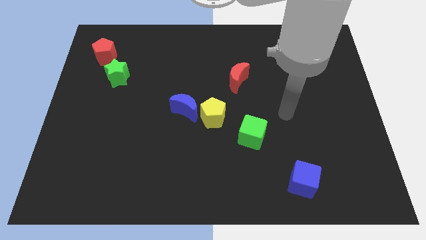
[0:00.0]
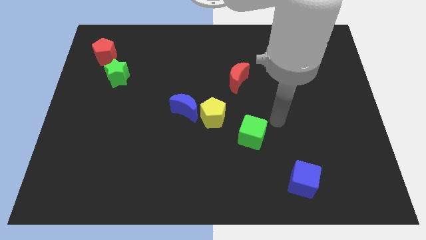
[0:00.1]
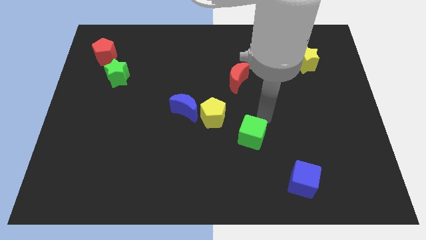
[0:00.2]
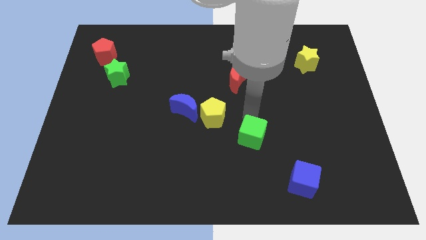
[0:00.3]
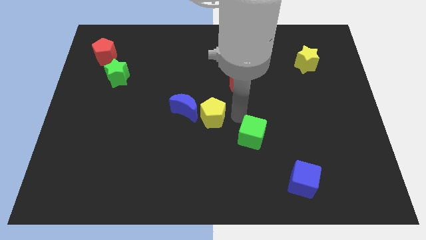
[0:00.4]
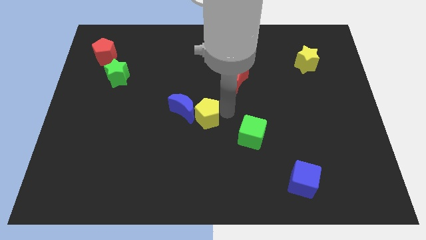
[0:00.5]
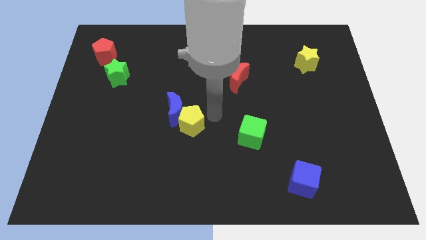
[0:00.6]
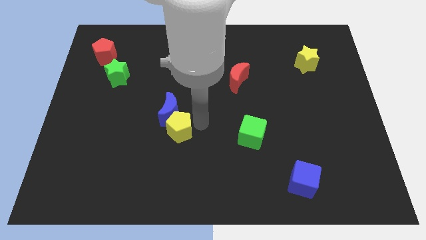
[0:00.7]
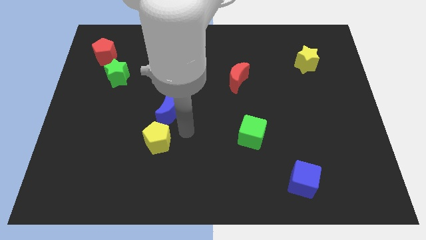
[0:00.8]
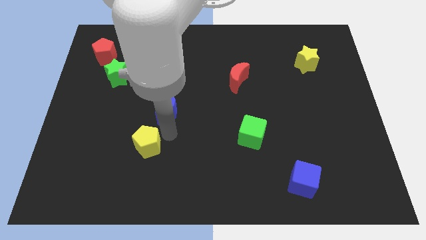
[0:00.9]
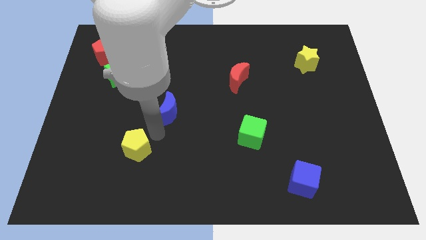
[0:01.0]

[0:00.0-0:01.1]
separate the blue moon from the yellow pentagon

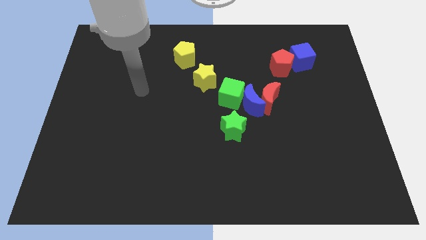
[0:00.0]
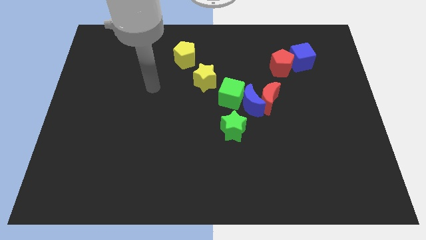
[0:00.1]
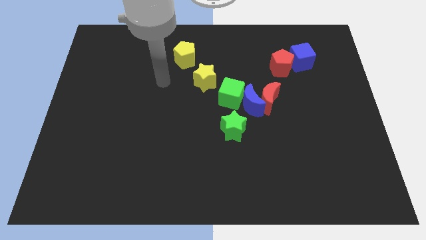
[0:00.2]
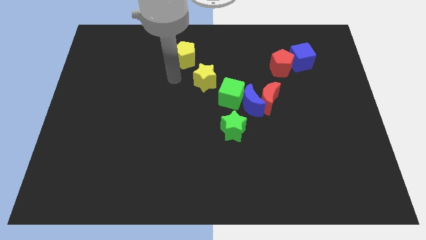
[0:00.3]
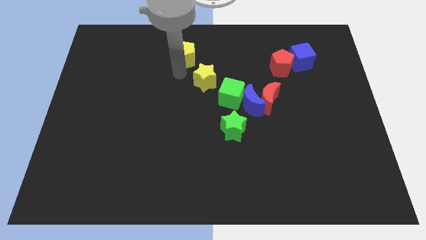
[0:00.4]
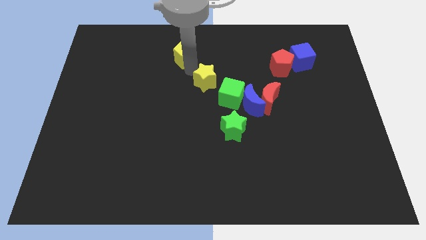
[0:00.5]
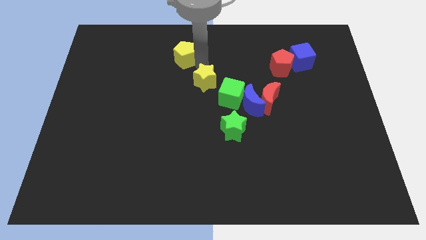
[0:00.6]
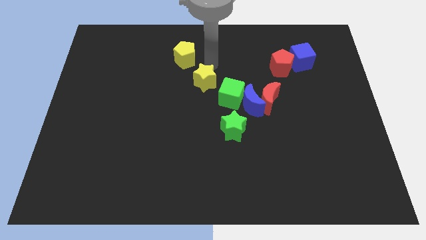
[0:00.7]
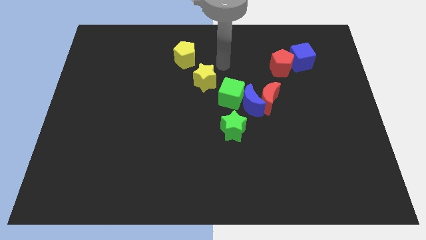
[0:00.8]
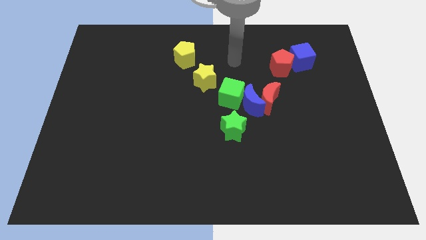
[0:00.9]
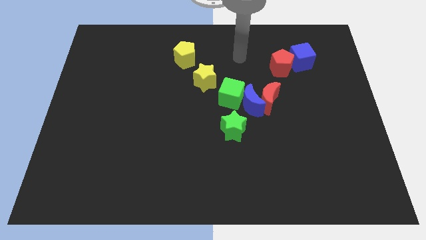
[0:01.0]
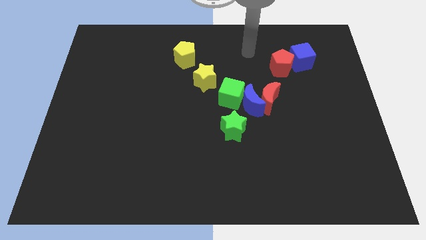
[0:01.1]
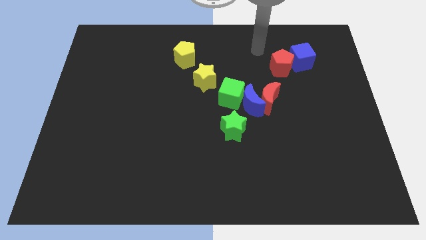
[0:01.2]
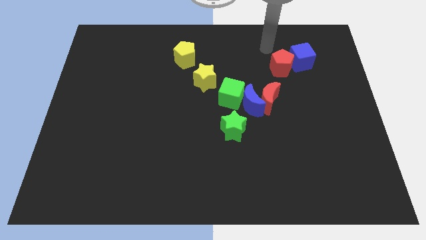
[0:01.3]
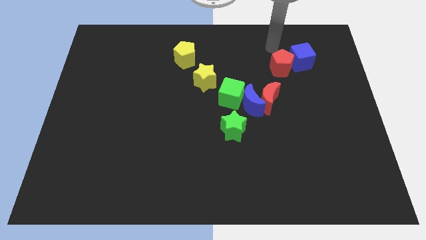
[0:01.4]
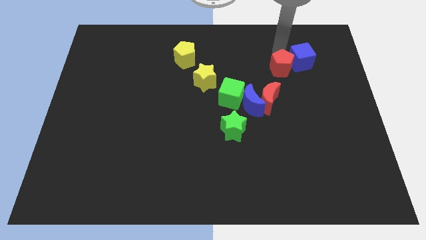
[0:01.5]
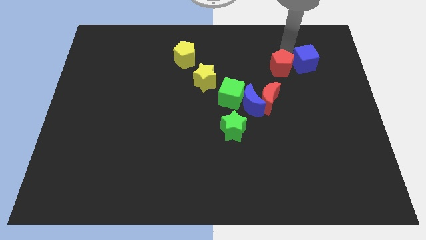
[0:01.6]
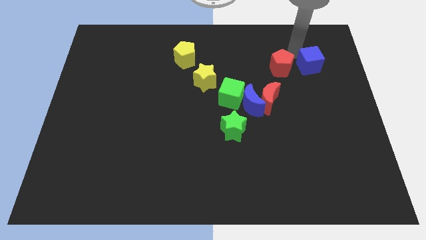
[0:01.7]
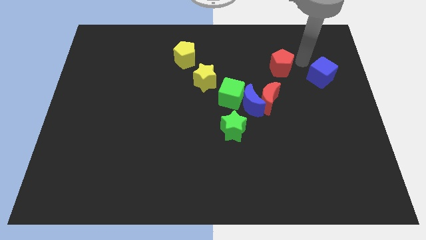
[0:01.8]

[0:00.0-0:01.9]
move the red pentagon away from the blue cube

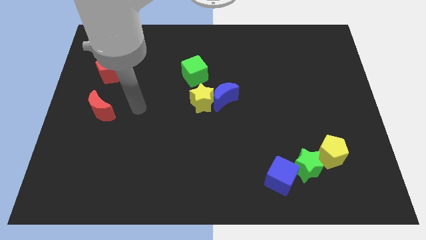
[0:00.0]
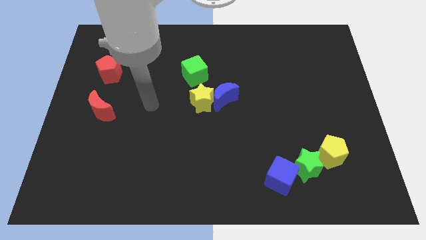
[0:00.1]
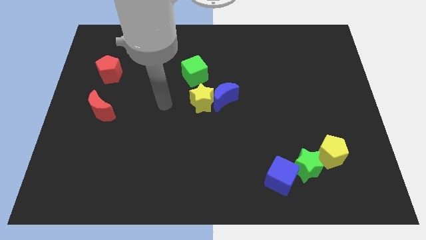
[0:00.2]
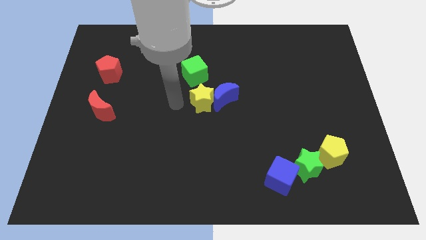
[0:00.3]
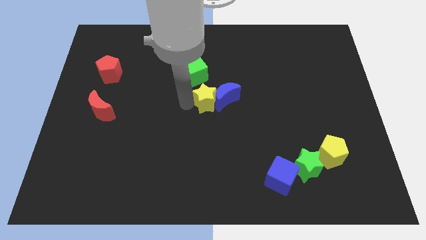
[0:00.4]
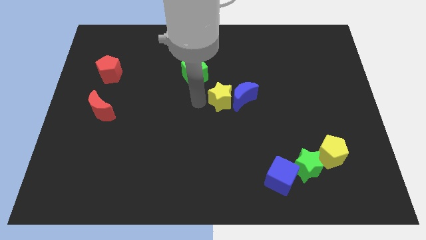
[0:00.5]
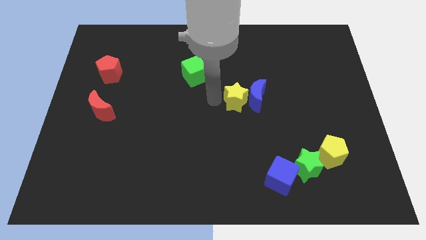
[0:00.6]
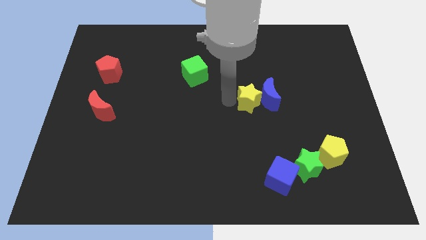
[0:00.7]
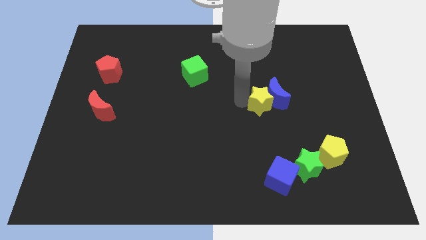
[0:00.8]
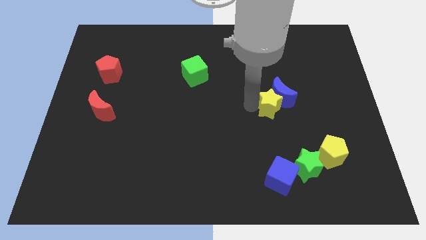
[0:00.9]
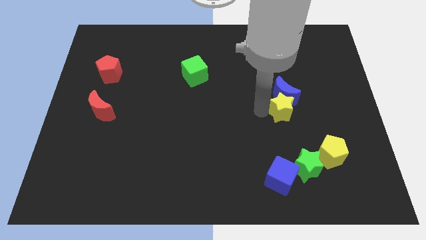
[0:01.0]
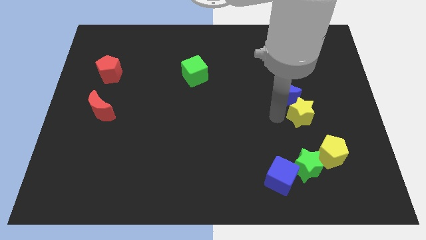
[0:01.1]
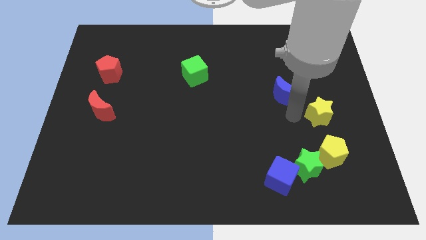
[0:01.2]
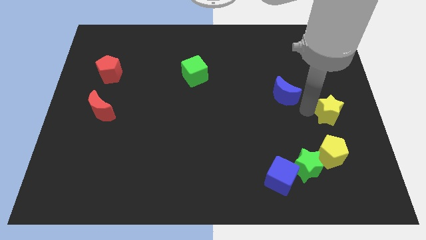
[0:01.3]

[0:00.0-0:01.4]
move the blue moon away from the yellow star

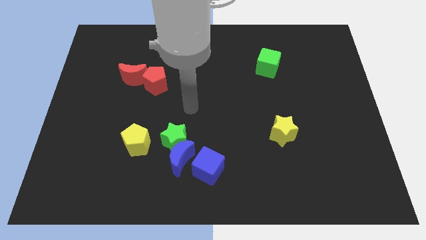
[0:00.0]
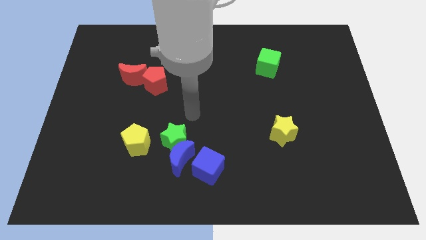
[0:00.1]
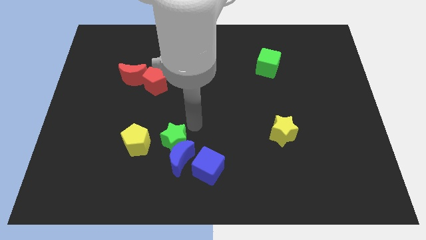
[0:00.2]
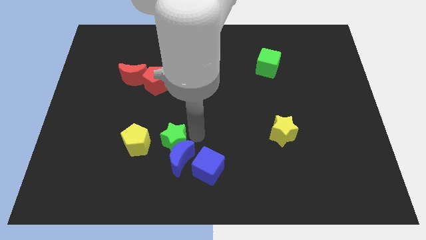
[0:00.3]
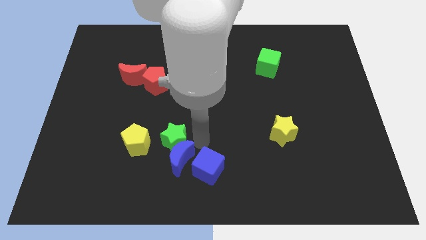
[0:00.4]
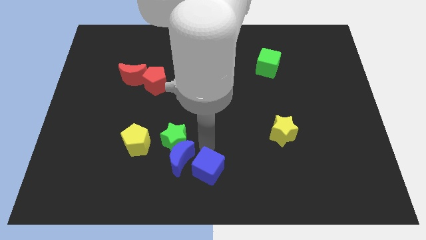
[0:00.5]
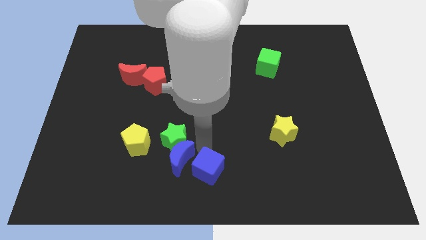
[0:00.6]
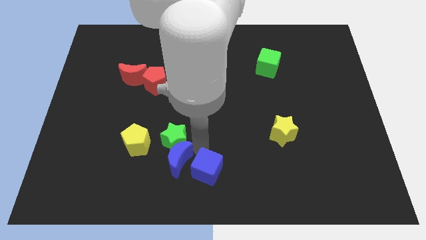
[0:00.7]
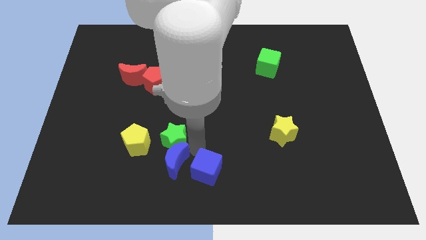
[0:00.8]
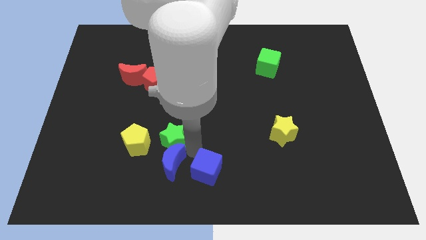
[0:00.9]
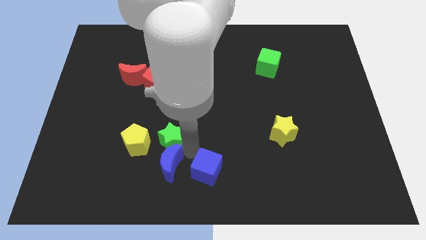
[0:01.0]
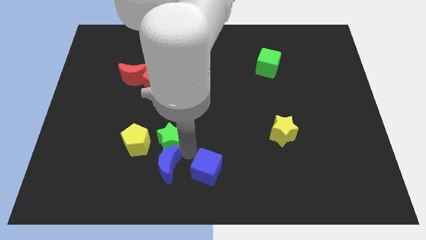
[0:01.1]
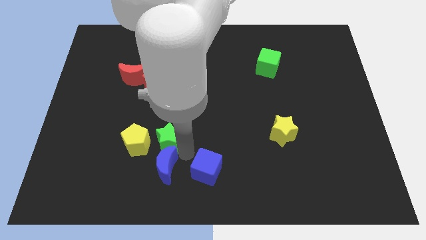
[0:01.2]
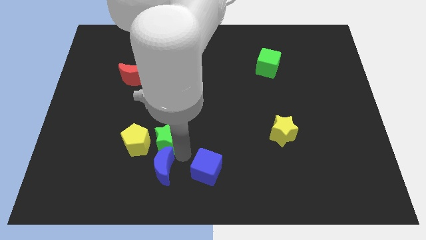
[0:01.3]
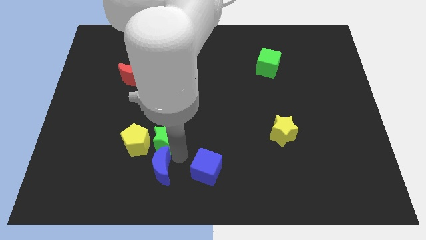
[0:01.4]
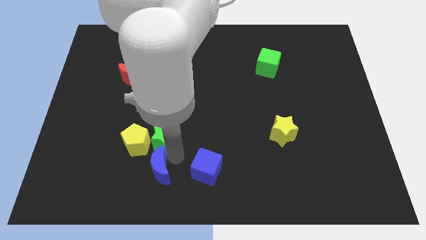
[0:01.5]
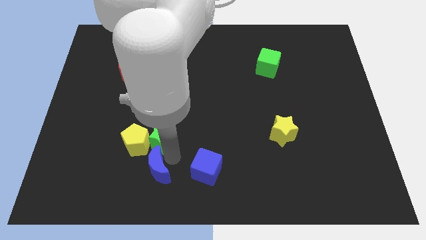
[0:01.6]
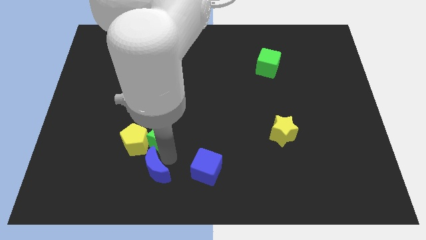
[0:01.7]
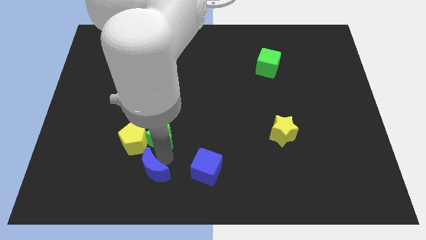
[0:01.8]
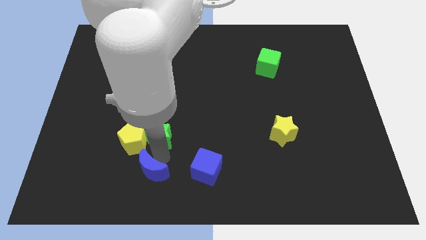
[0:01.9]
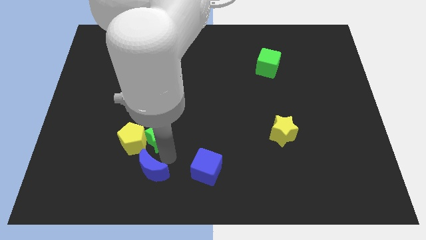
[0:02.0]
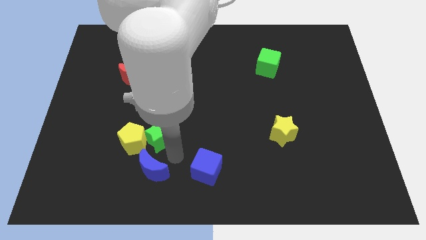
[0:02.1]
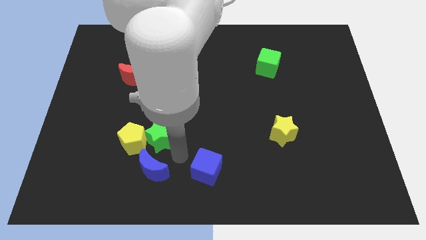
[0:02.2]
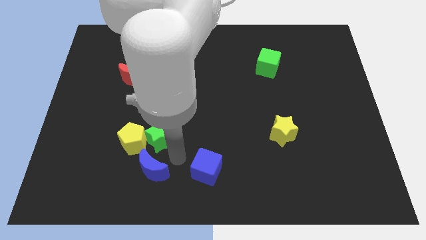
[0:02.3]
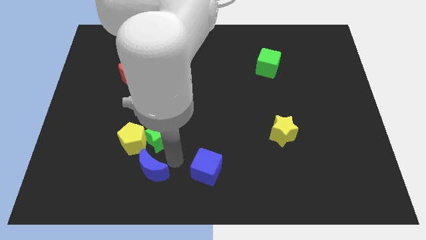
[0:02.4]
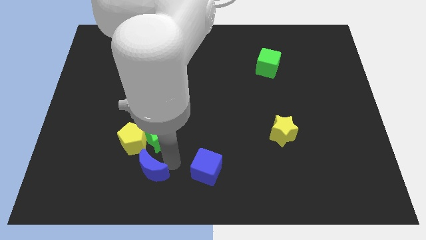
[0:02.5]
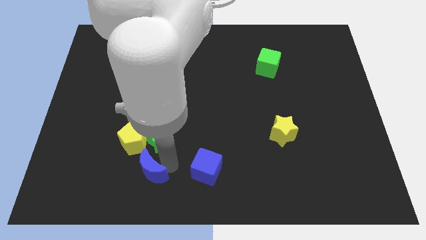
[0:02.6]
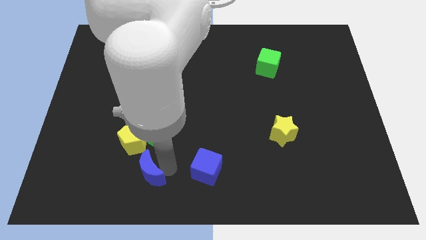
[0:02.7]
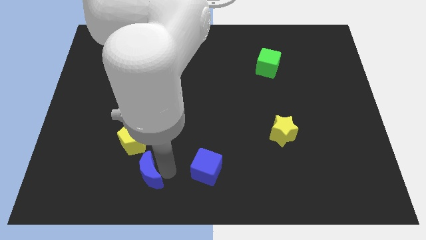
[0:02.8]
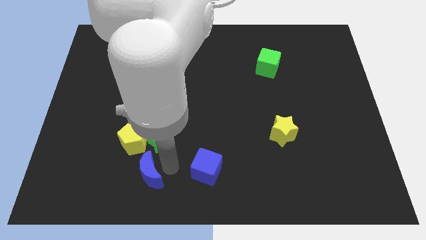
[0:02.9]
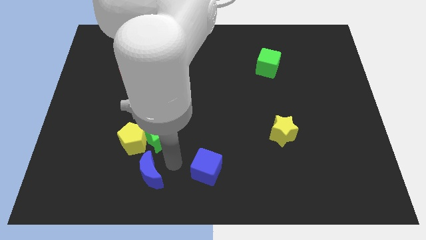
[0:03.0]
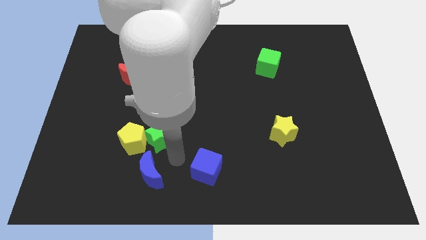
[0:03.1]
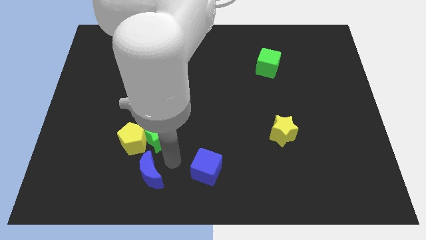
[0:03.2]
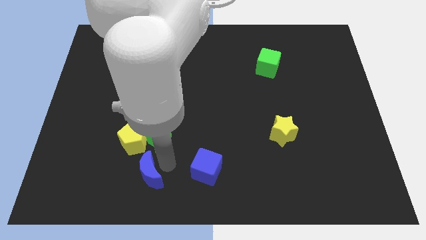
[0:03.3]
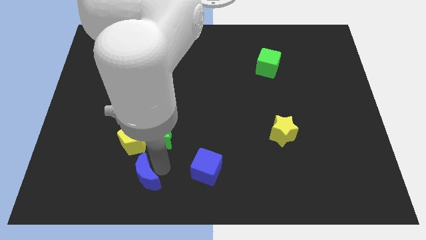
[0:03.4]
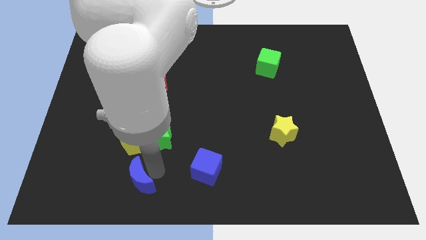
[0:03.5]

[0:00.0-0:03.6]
pull the blue moon apart from the green star and blue cube

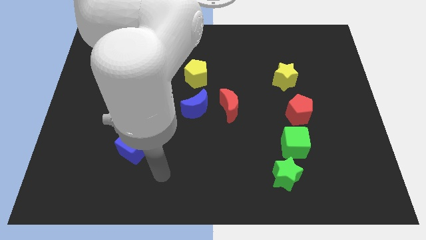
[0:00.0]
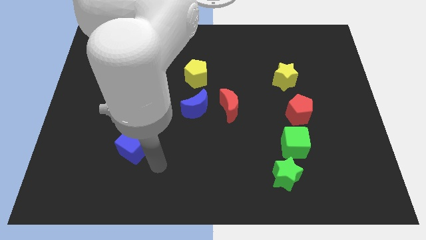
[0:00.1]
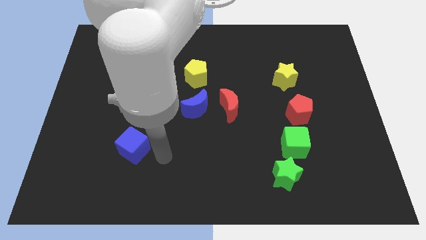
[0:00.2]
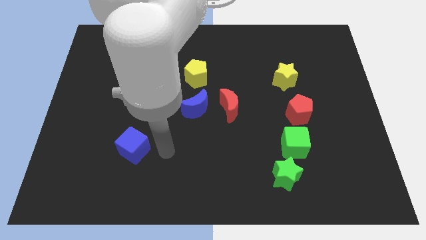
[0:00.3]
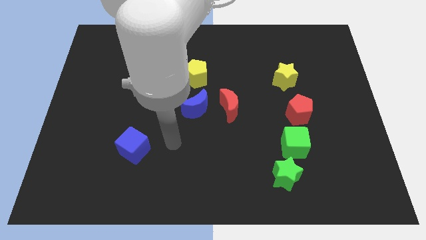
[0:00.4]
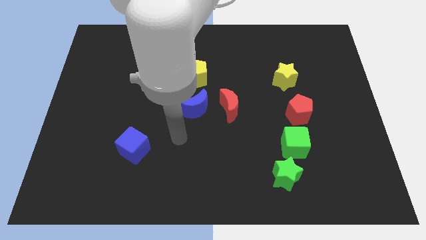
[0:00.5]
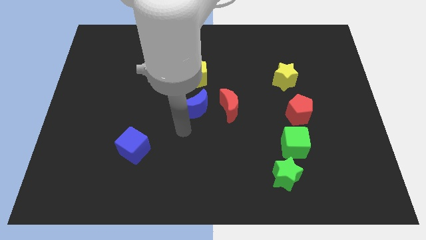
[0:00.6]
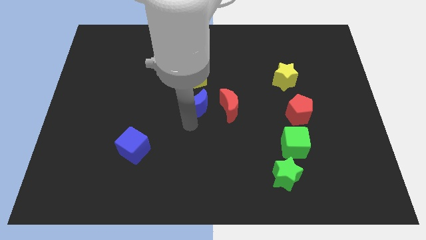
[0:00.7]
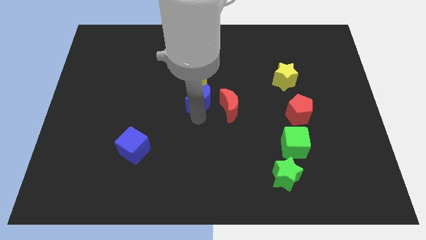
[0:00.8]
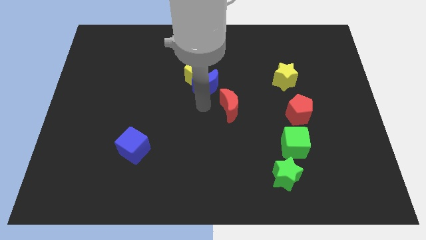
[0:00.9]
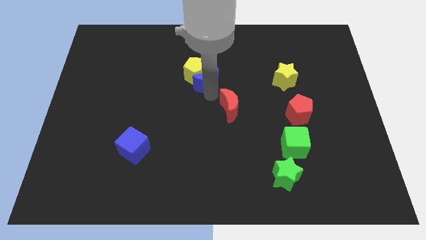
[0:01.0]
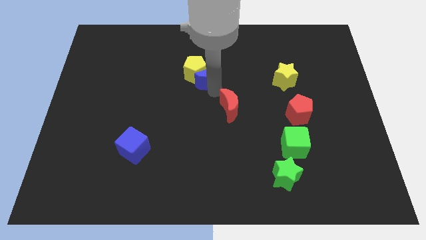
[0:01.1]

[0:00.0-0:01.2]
pull the red moon apart from the blue moon

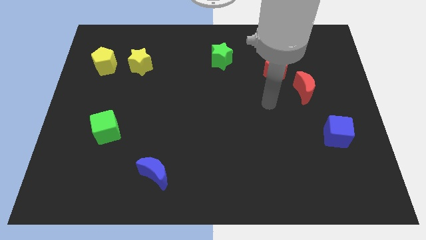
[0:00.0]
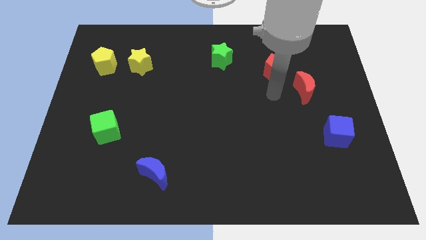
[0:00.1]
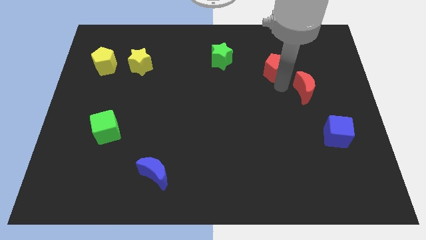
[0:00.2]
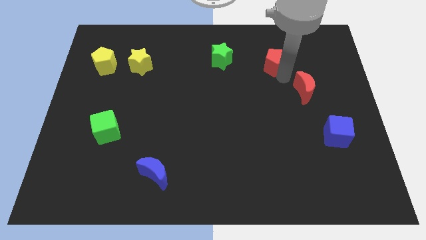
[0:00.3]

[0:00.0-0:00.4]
pull the red moon apart from the red pentagon
